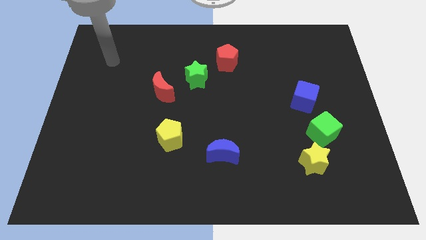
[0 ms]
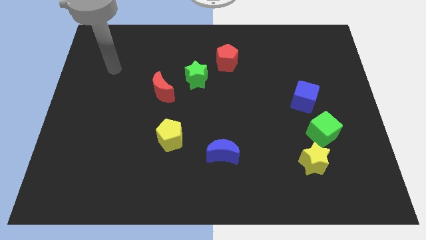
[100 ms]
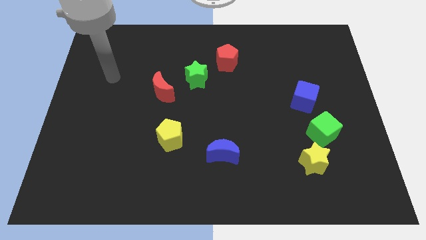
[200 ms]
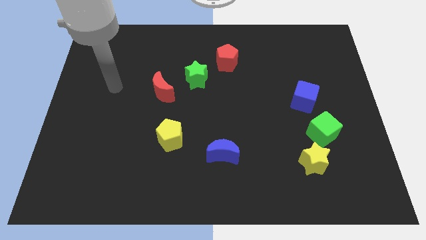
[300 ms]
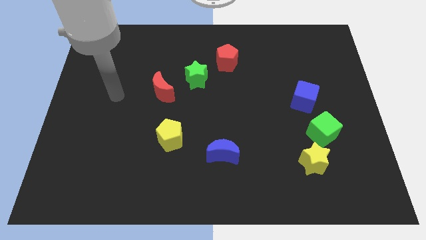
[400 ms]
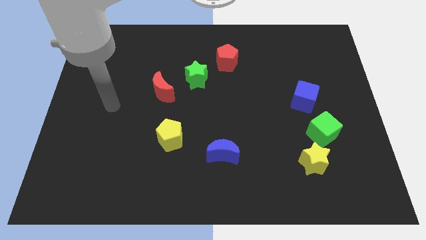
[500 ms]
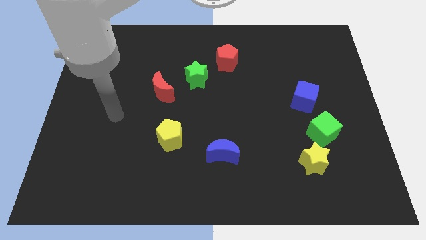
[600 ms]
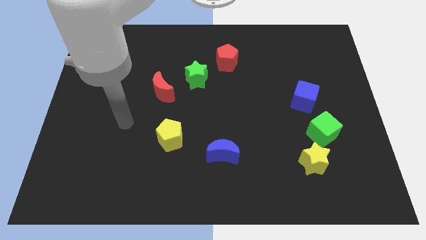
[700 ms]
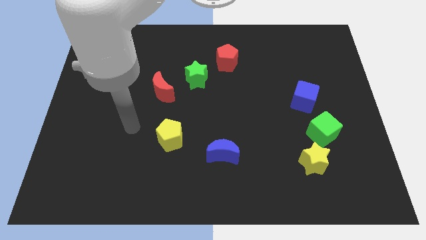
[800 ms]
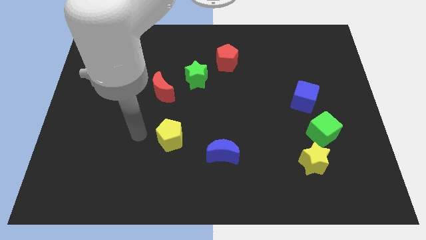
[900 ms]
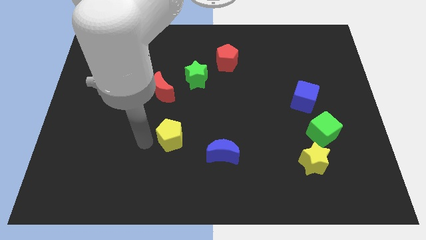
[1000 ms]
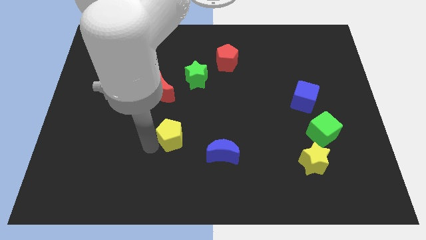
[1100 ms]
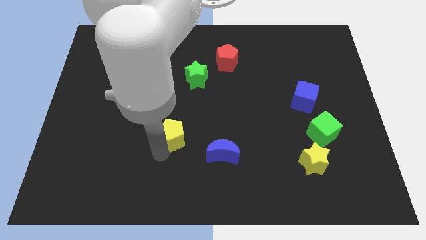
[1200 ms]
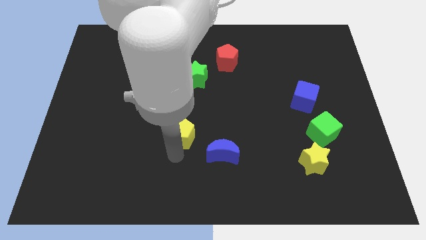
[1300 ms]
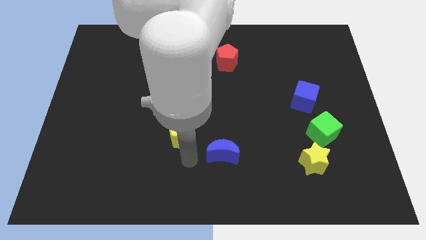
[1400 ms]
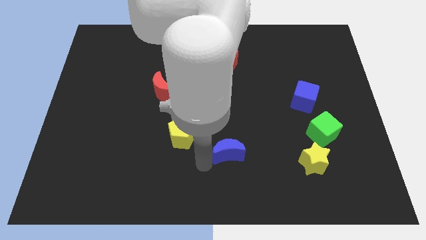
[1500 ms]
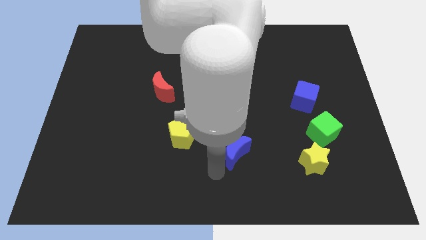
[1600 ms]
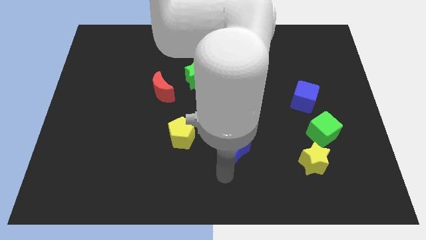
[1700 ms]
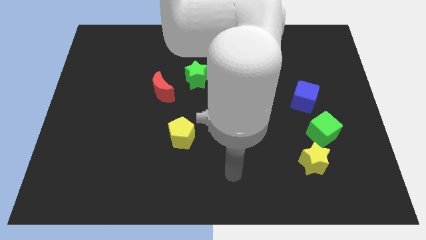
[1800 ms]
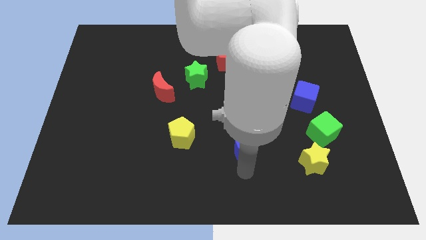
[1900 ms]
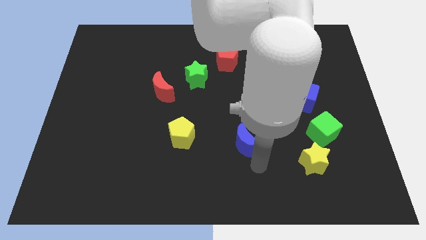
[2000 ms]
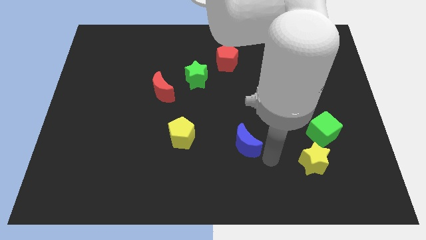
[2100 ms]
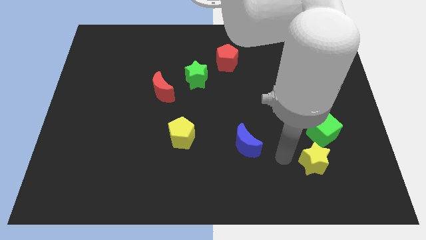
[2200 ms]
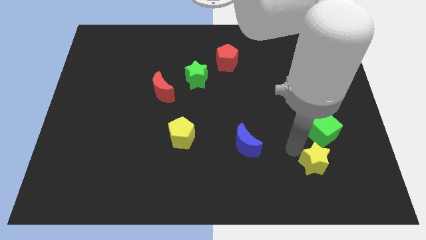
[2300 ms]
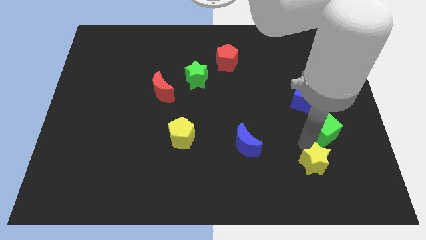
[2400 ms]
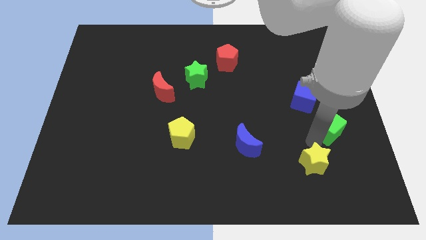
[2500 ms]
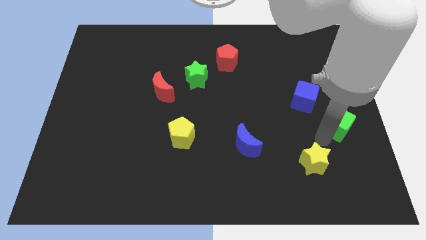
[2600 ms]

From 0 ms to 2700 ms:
move the yellow star away from the green cube

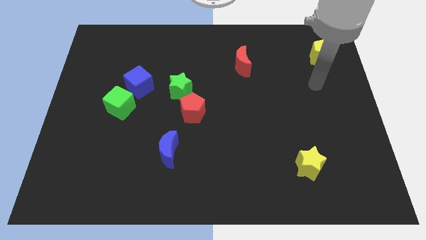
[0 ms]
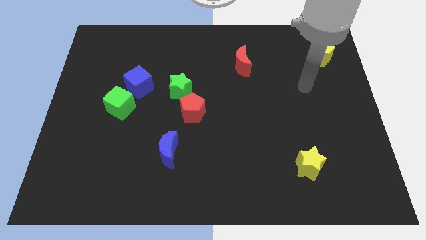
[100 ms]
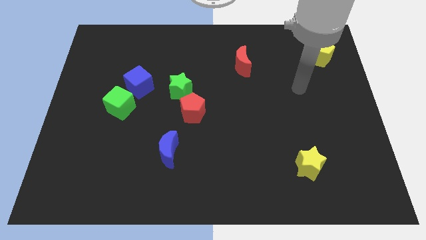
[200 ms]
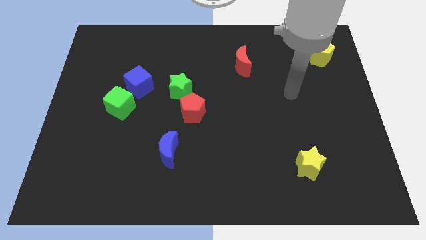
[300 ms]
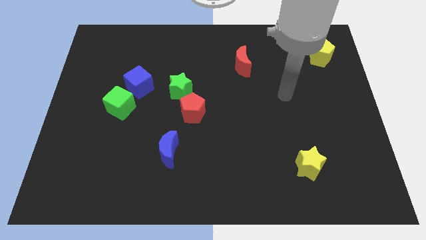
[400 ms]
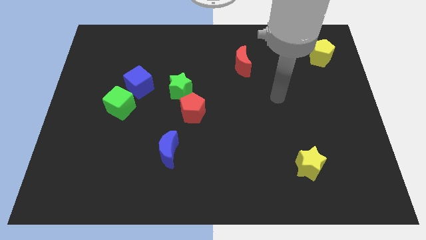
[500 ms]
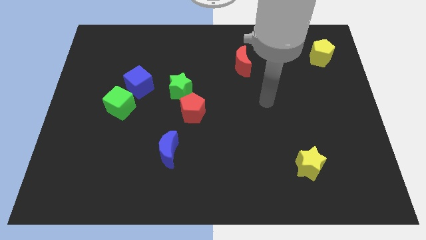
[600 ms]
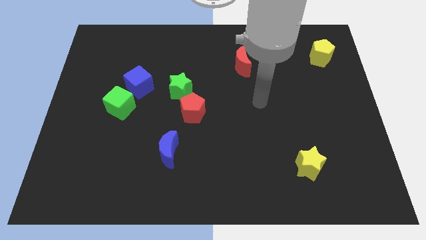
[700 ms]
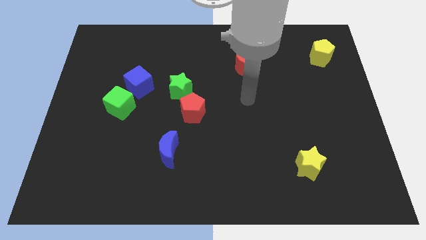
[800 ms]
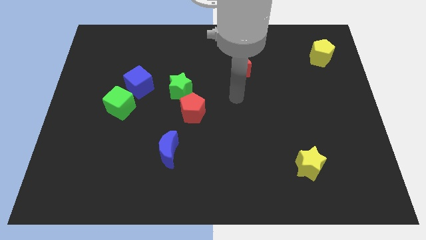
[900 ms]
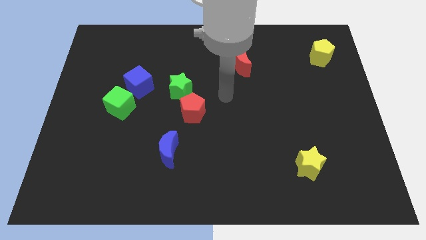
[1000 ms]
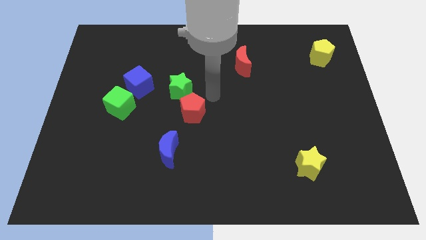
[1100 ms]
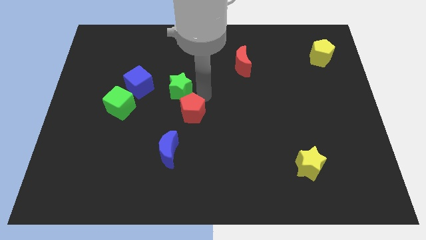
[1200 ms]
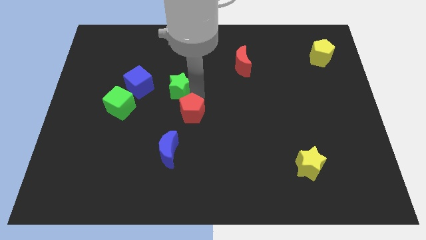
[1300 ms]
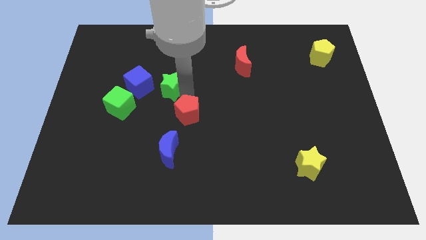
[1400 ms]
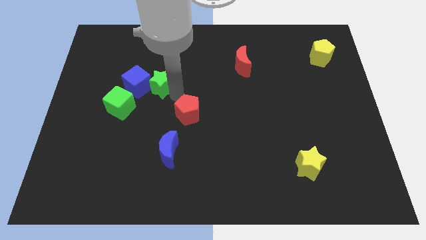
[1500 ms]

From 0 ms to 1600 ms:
pull the red pentagon apart from the green star

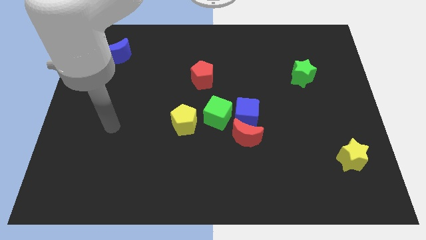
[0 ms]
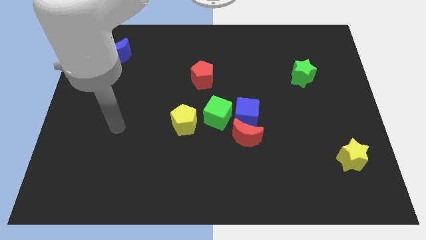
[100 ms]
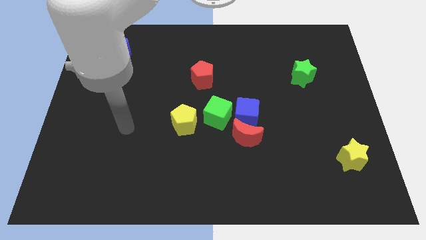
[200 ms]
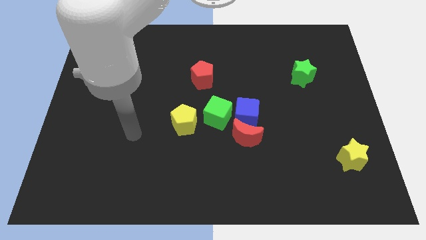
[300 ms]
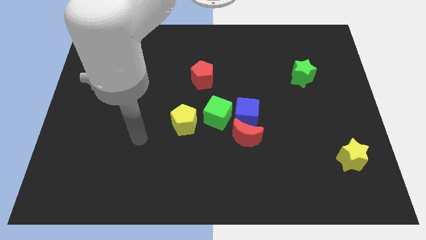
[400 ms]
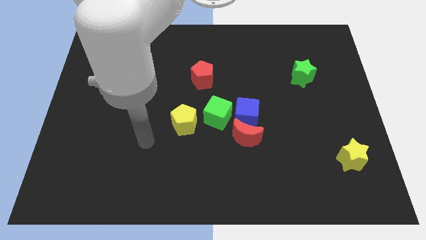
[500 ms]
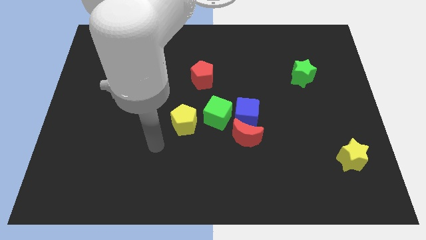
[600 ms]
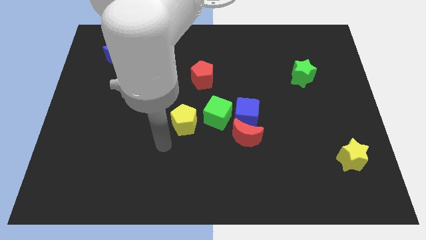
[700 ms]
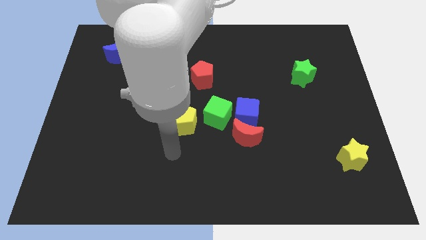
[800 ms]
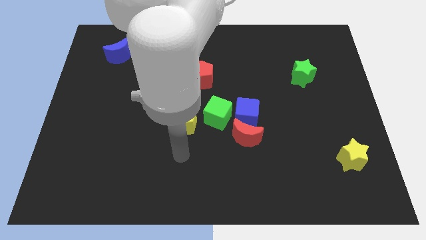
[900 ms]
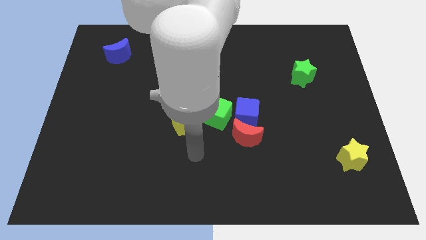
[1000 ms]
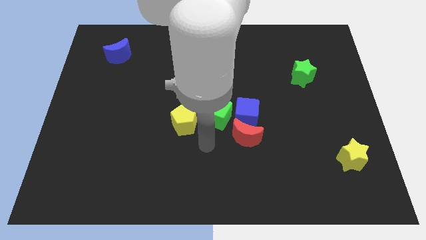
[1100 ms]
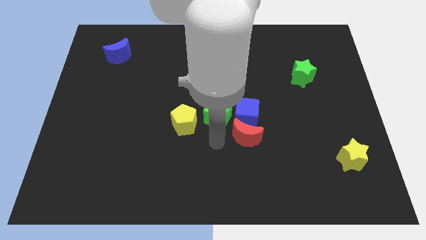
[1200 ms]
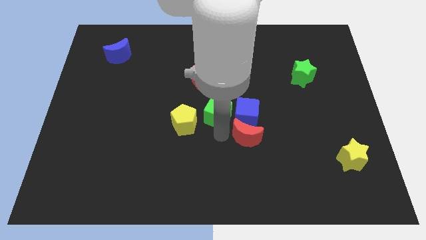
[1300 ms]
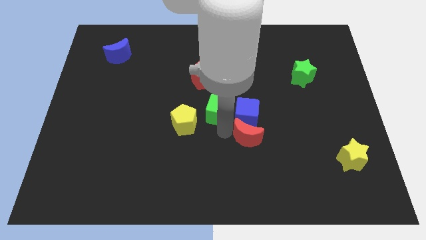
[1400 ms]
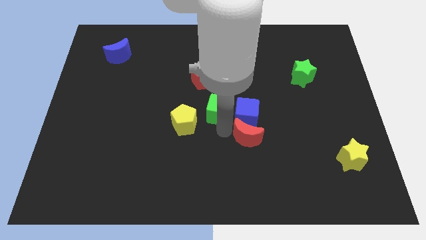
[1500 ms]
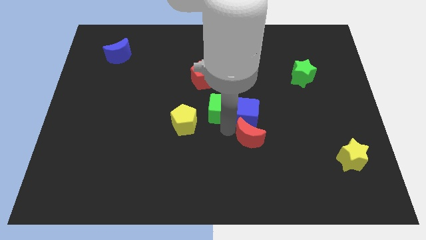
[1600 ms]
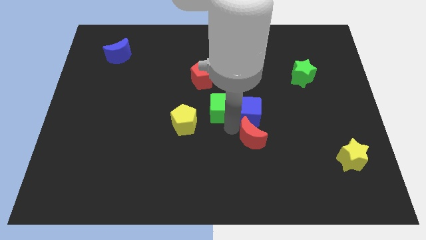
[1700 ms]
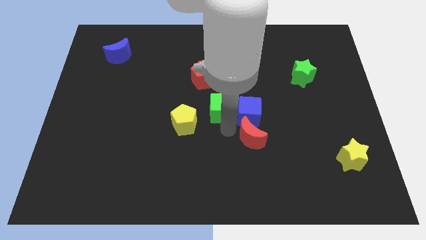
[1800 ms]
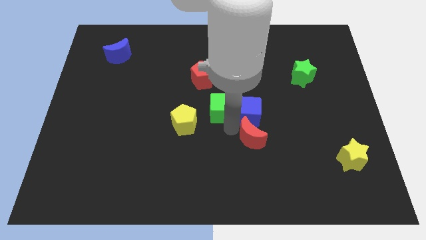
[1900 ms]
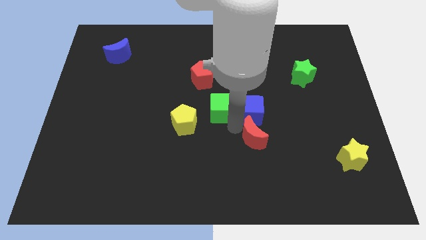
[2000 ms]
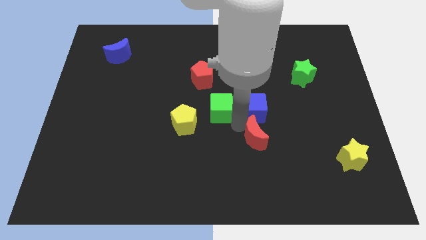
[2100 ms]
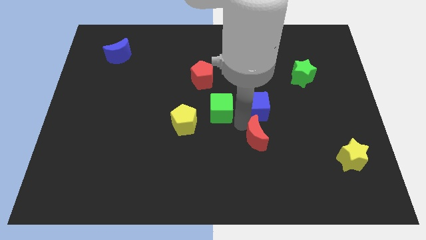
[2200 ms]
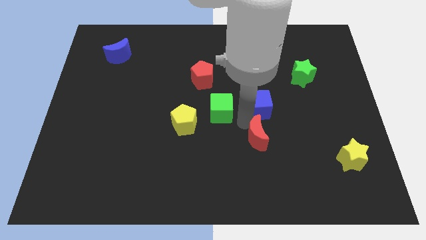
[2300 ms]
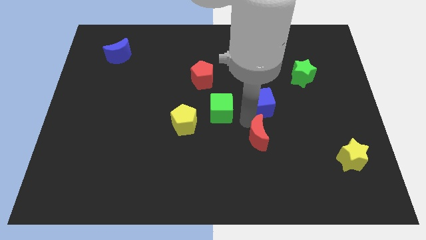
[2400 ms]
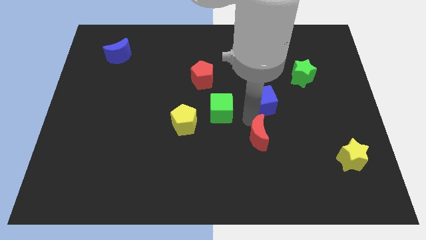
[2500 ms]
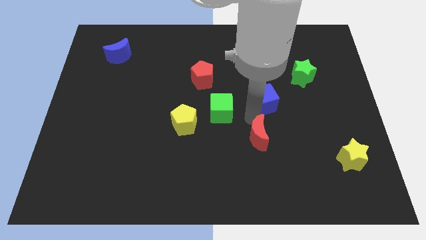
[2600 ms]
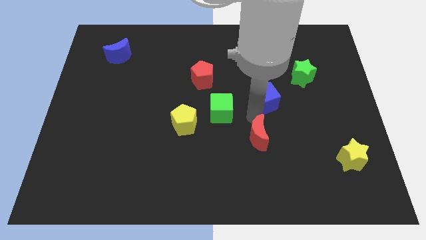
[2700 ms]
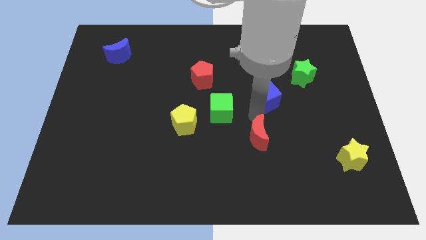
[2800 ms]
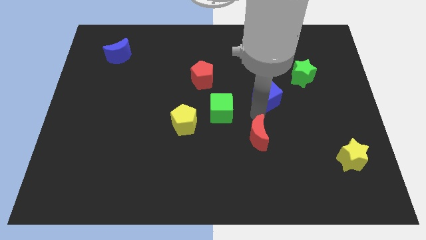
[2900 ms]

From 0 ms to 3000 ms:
separate the blue cube from the red moon and green cube

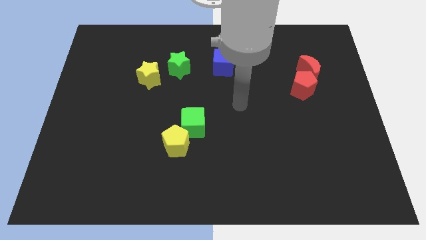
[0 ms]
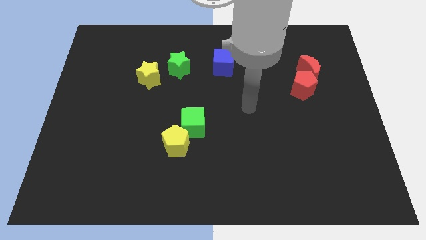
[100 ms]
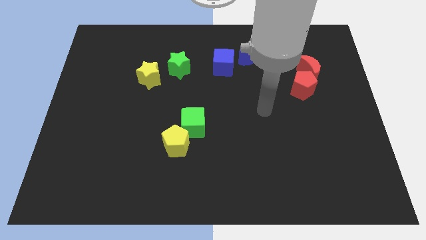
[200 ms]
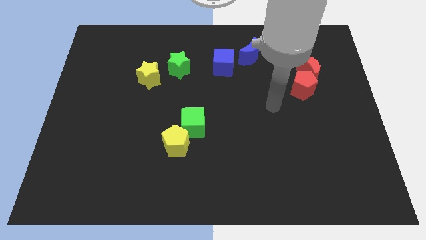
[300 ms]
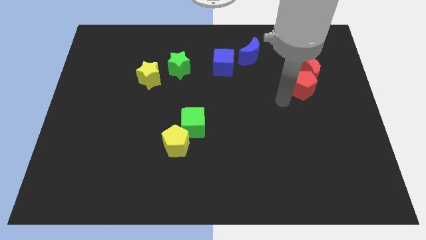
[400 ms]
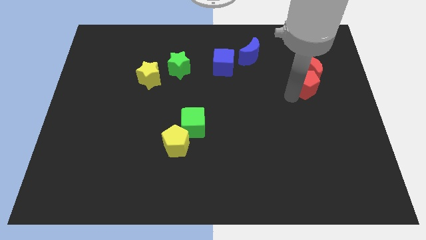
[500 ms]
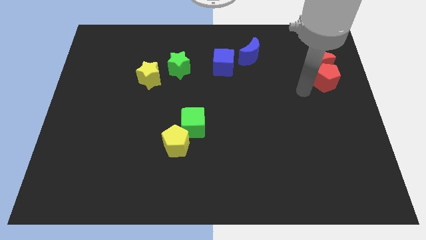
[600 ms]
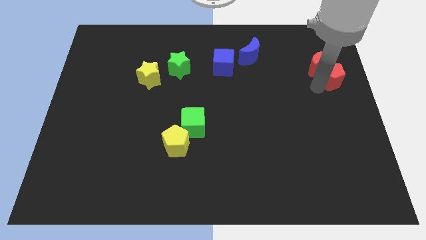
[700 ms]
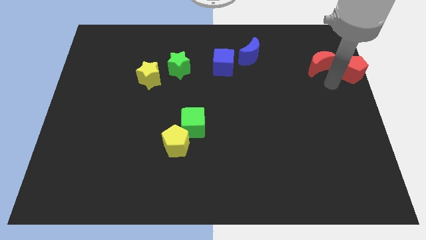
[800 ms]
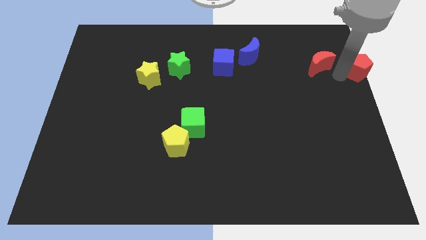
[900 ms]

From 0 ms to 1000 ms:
separate the red moon from the red pentagon

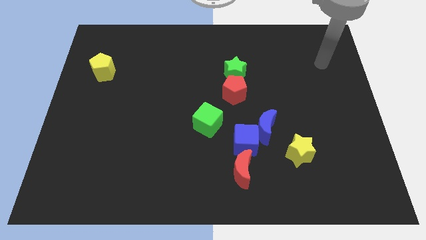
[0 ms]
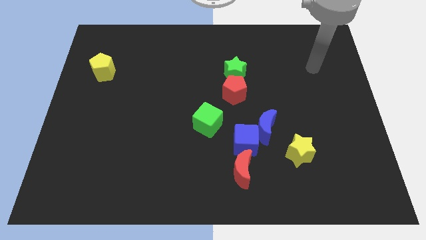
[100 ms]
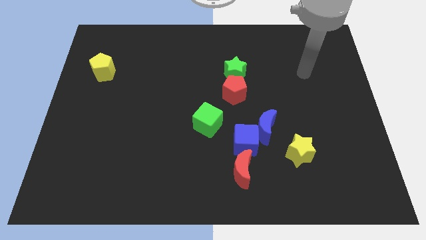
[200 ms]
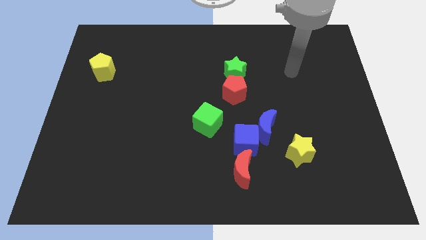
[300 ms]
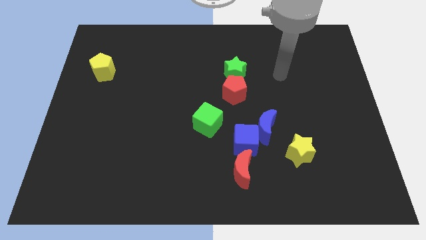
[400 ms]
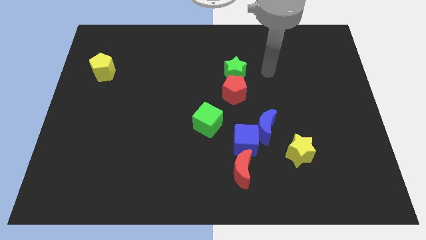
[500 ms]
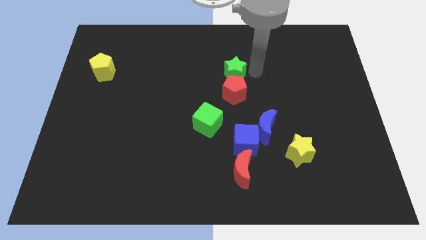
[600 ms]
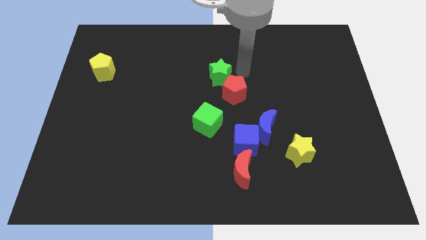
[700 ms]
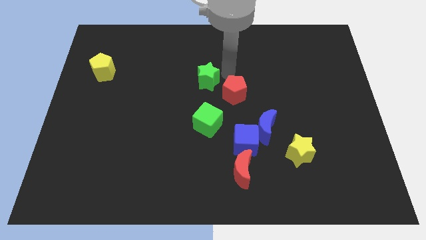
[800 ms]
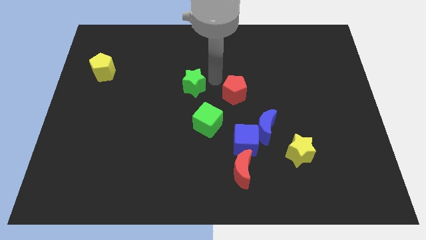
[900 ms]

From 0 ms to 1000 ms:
move the red pentagon away from the green star
